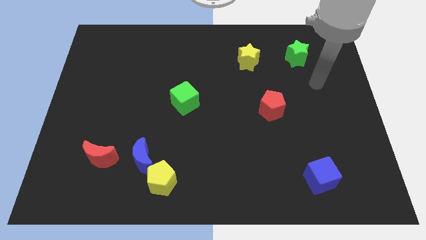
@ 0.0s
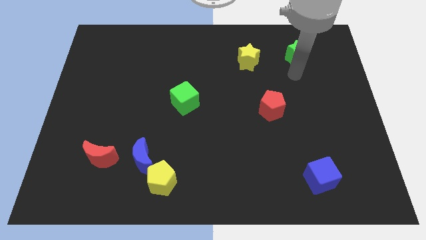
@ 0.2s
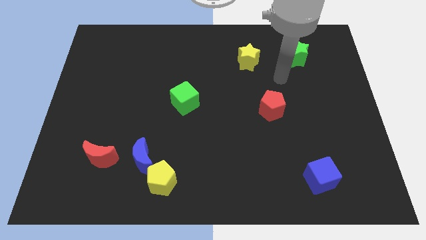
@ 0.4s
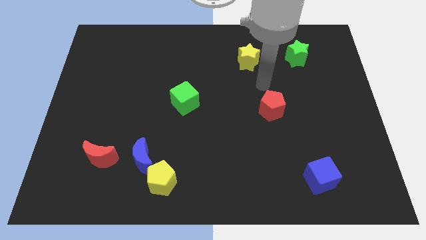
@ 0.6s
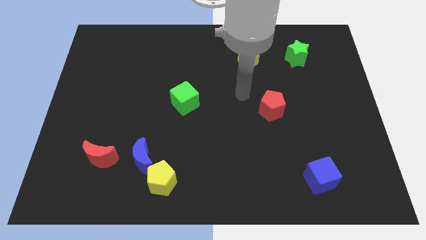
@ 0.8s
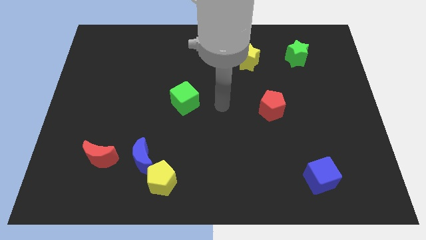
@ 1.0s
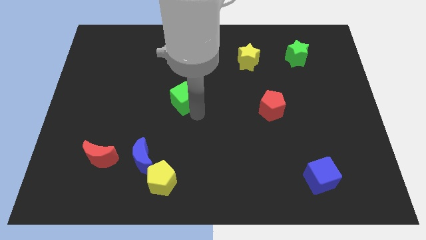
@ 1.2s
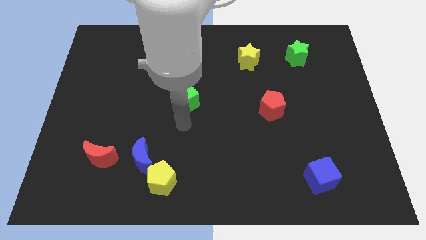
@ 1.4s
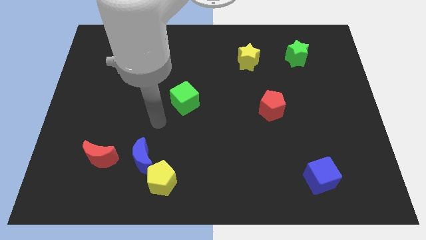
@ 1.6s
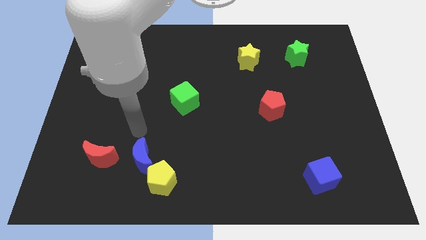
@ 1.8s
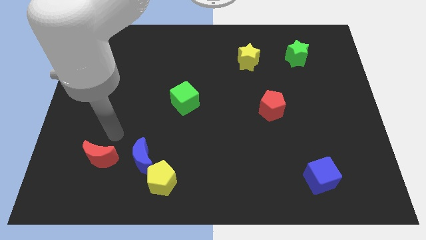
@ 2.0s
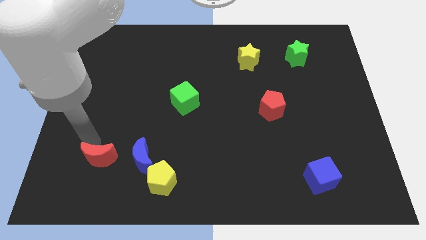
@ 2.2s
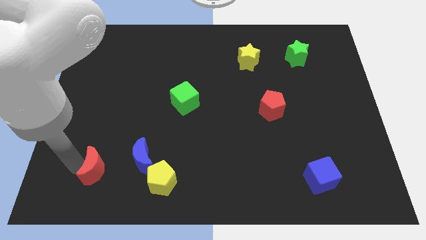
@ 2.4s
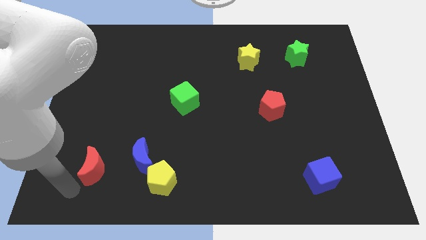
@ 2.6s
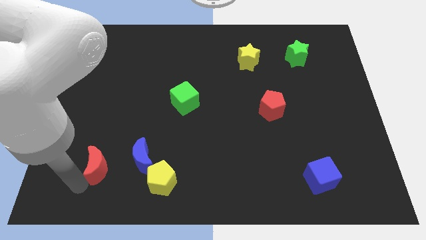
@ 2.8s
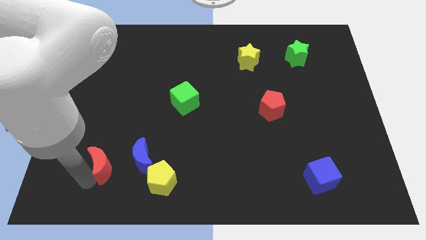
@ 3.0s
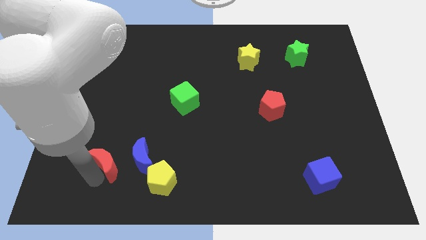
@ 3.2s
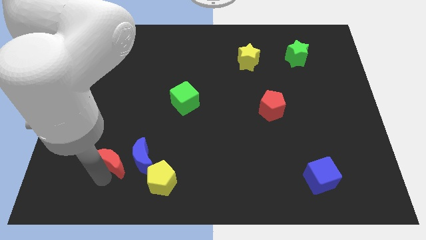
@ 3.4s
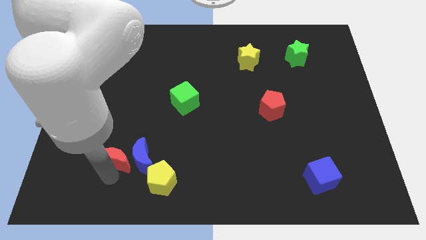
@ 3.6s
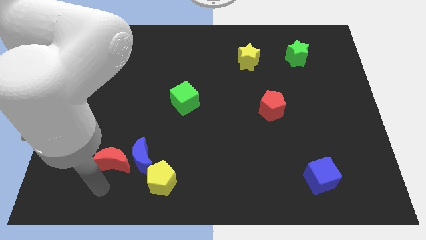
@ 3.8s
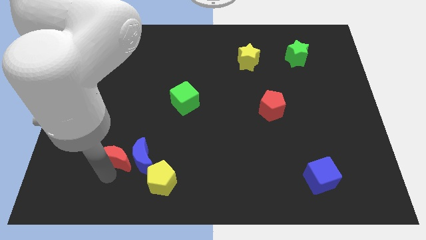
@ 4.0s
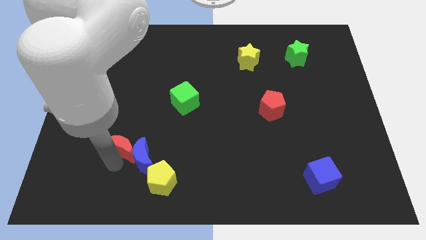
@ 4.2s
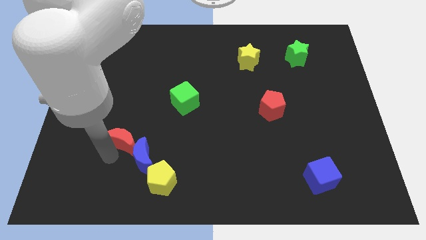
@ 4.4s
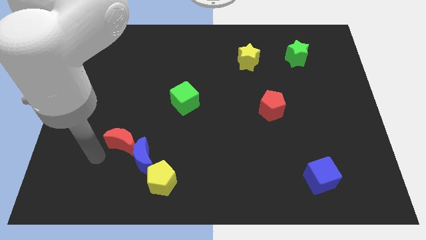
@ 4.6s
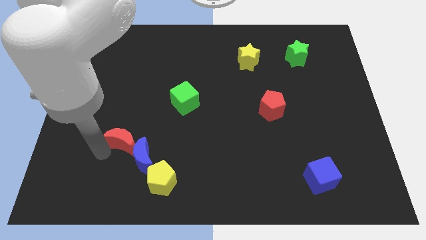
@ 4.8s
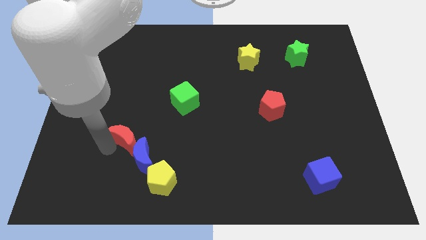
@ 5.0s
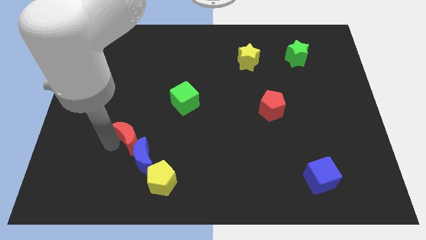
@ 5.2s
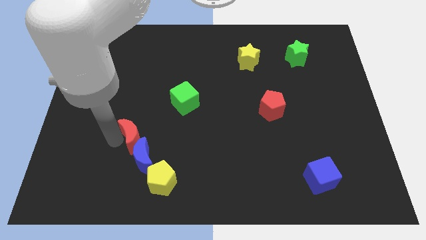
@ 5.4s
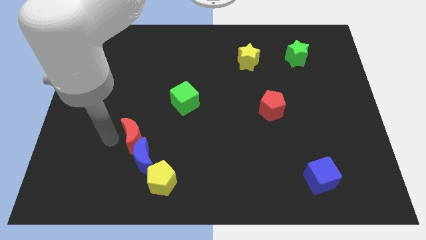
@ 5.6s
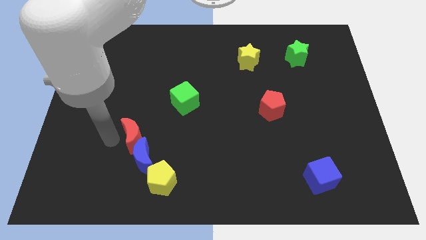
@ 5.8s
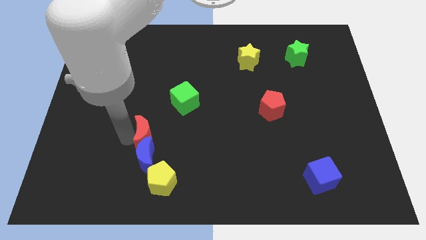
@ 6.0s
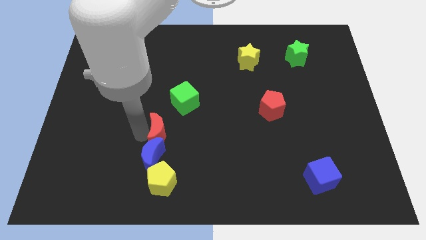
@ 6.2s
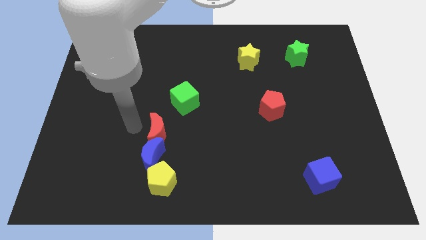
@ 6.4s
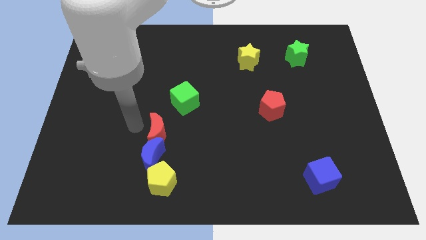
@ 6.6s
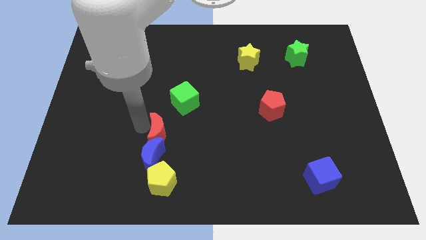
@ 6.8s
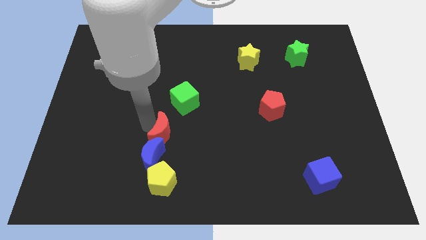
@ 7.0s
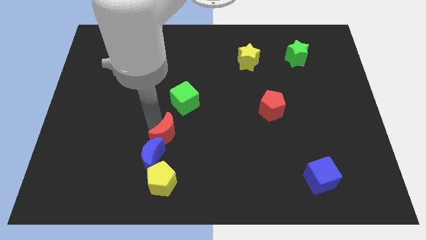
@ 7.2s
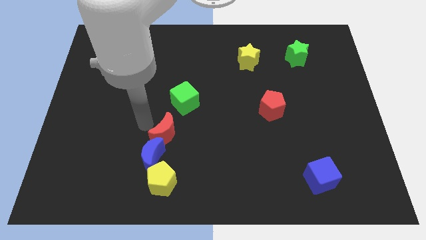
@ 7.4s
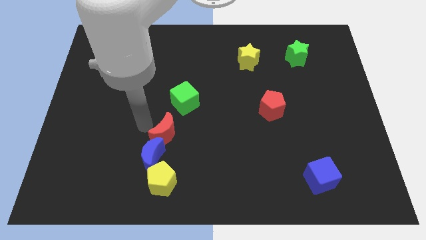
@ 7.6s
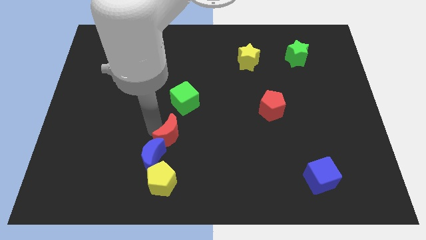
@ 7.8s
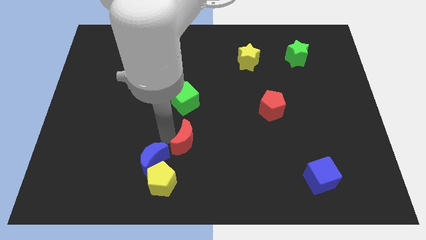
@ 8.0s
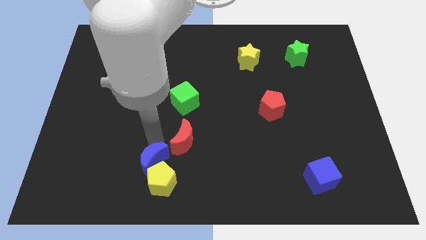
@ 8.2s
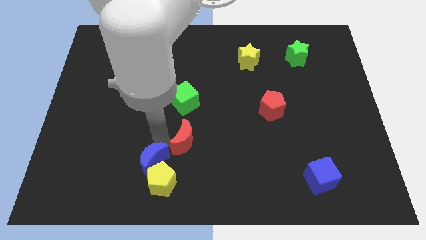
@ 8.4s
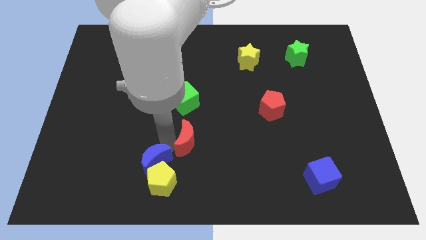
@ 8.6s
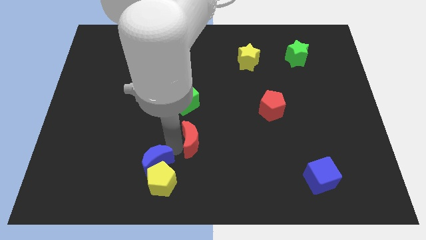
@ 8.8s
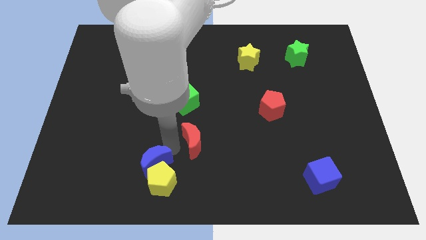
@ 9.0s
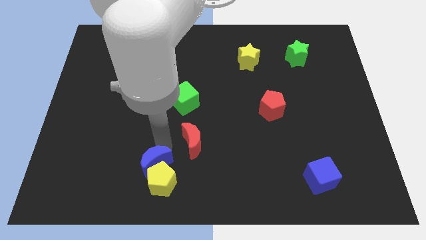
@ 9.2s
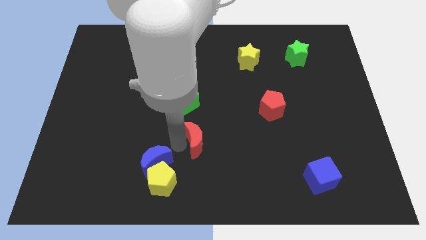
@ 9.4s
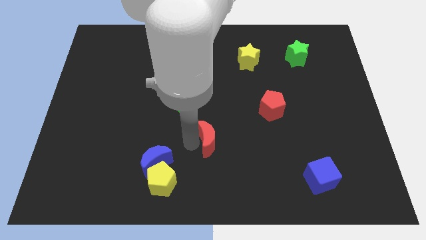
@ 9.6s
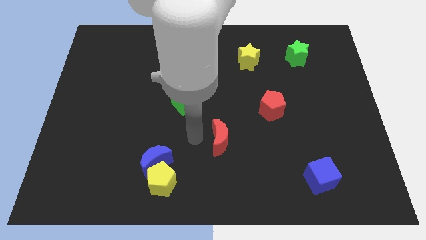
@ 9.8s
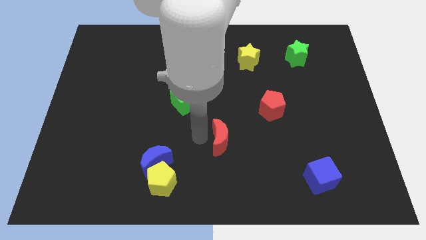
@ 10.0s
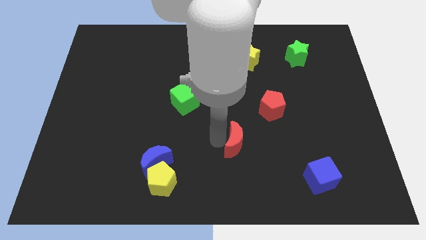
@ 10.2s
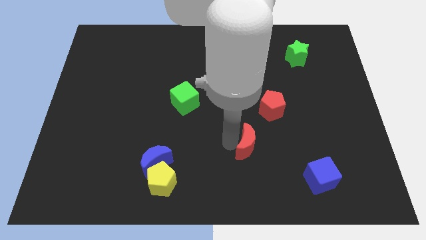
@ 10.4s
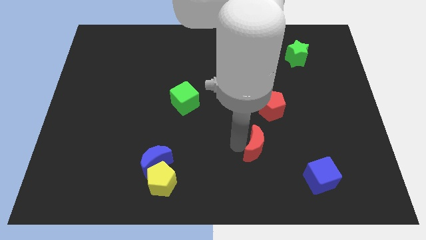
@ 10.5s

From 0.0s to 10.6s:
push the red moon to the bottom side of the red pentagon

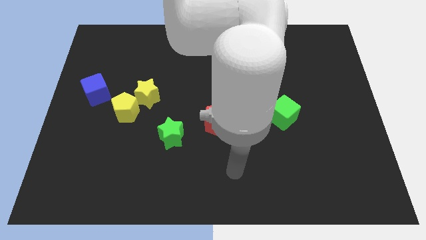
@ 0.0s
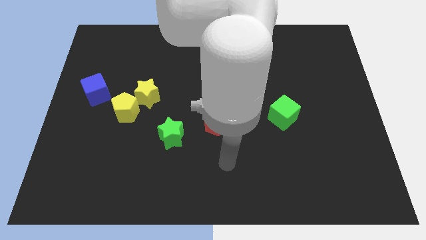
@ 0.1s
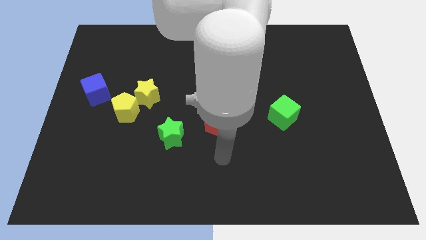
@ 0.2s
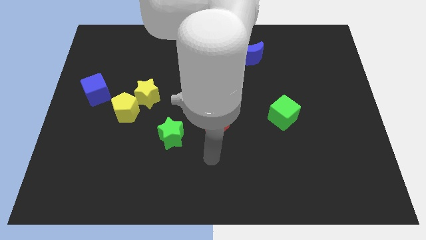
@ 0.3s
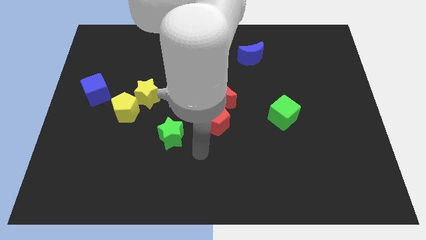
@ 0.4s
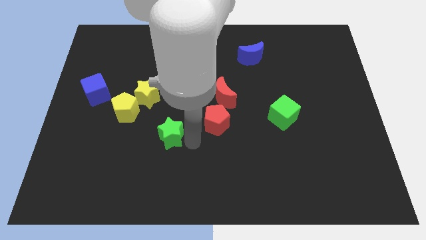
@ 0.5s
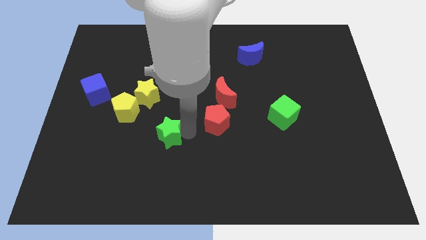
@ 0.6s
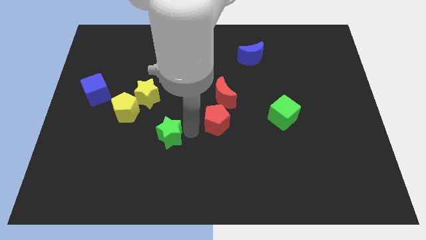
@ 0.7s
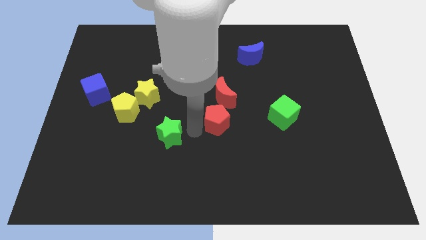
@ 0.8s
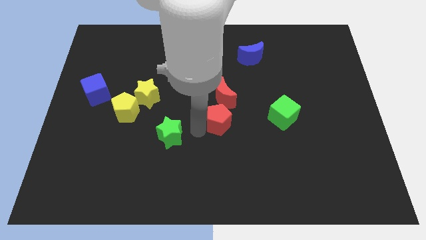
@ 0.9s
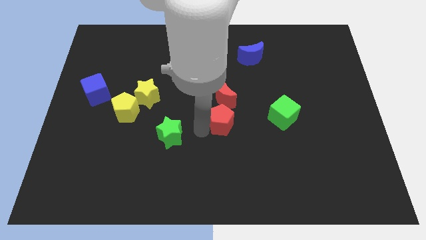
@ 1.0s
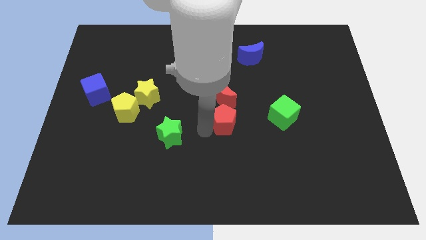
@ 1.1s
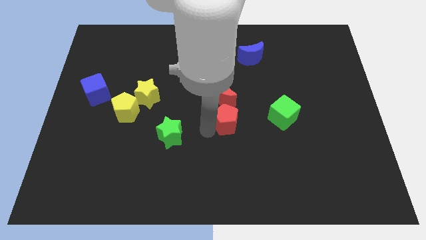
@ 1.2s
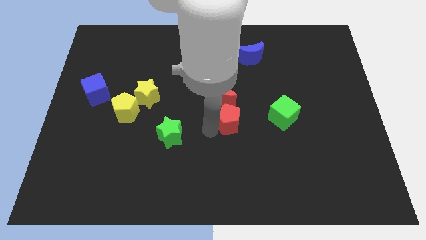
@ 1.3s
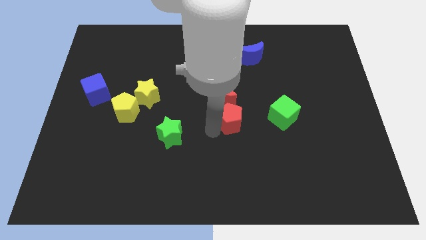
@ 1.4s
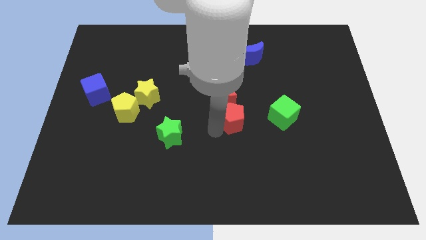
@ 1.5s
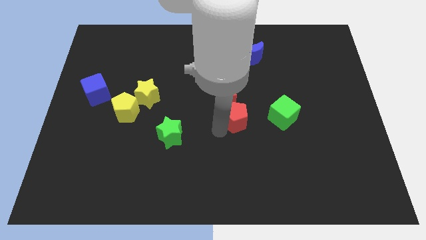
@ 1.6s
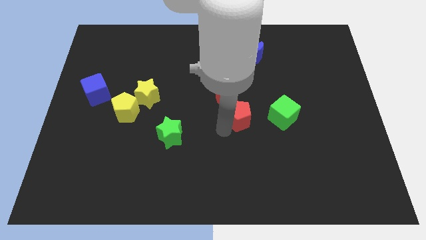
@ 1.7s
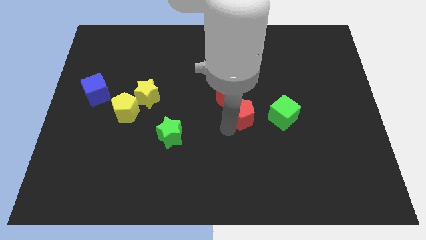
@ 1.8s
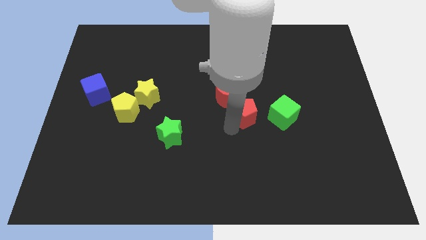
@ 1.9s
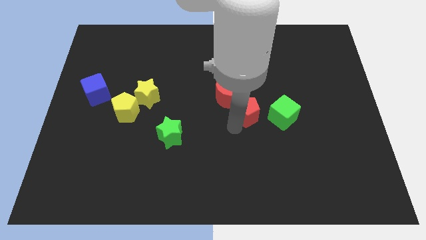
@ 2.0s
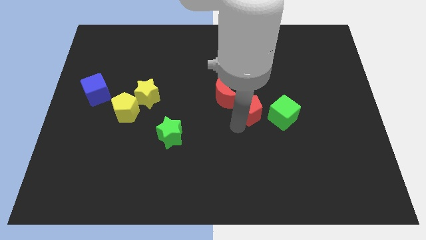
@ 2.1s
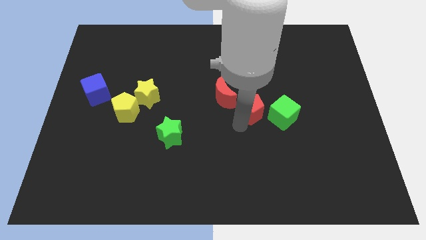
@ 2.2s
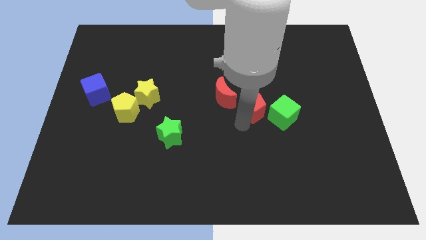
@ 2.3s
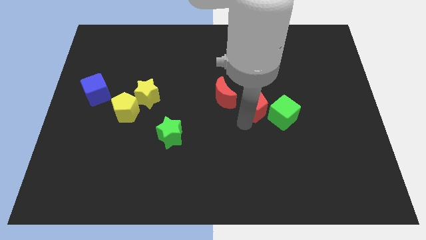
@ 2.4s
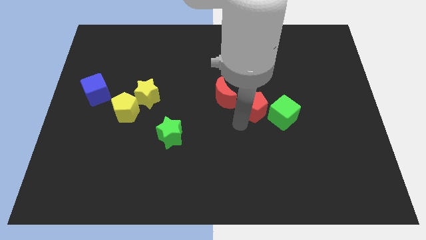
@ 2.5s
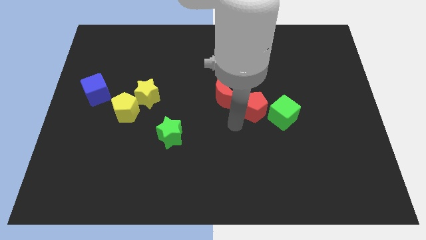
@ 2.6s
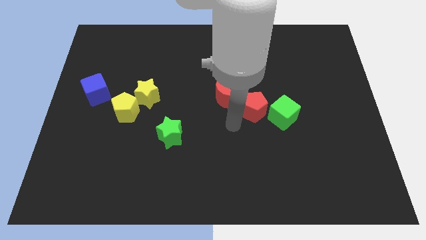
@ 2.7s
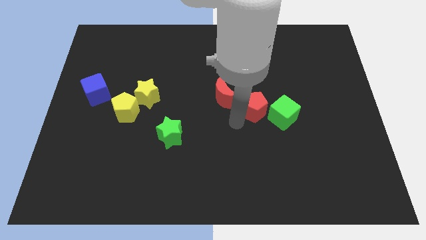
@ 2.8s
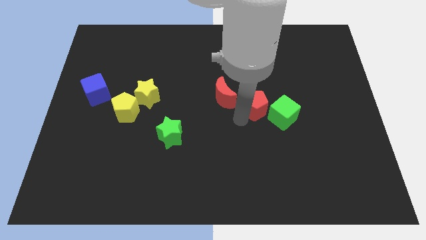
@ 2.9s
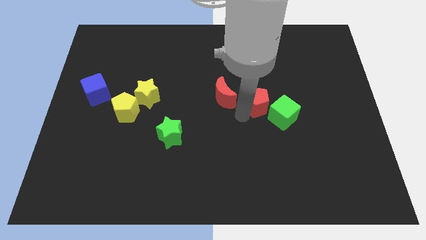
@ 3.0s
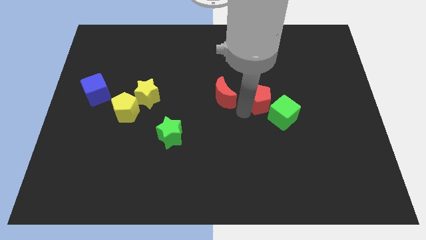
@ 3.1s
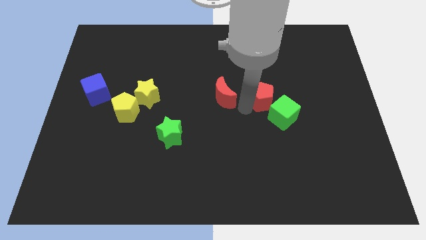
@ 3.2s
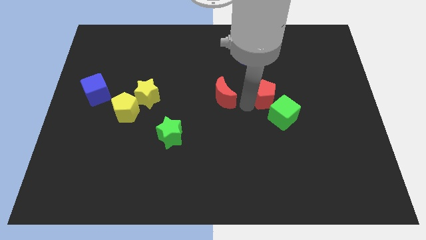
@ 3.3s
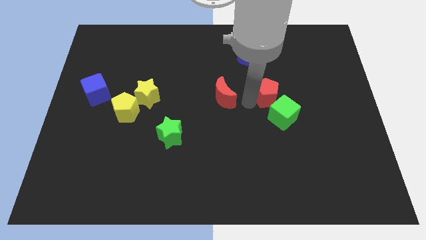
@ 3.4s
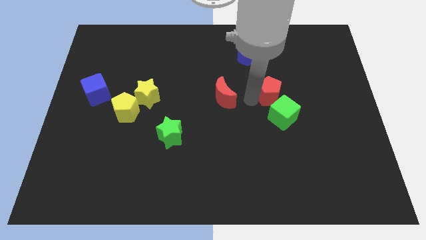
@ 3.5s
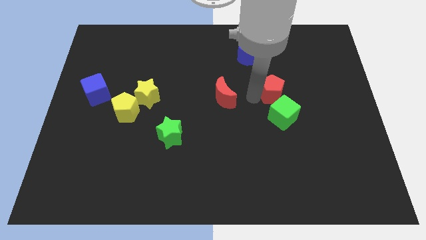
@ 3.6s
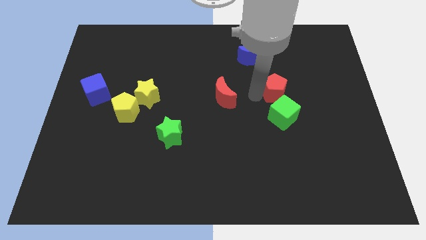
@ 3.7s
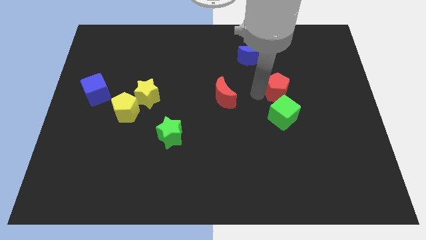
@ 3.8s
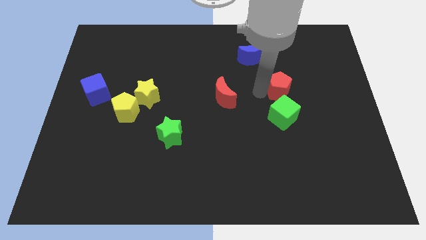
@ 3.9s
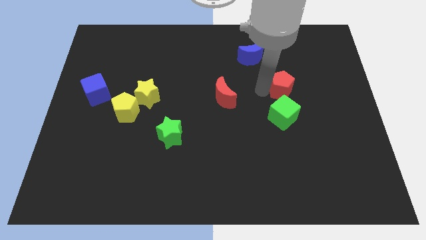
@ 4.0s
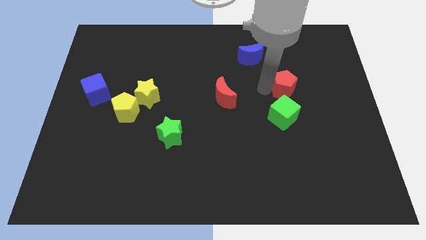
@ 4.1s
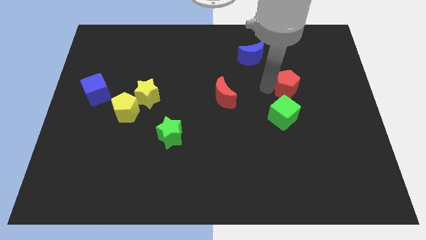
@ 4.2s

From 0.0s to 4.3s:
push the red pentagon to the top right side of the green cube
